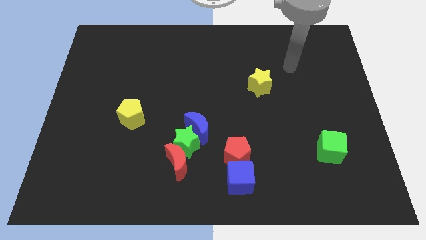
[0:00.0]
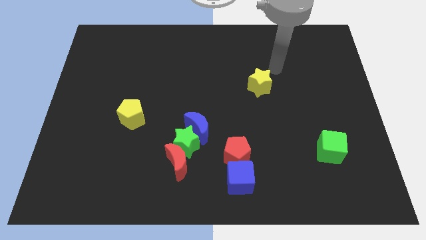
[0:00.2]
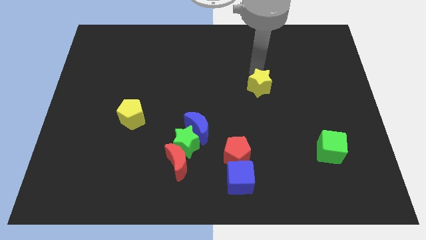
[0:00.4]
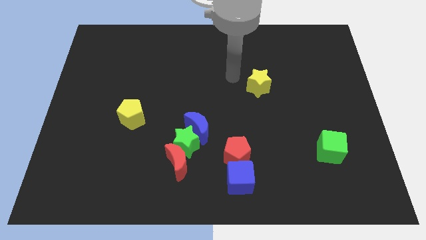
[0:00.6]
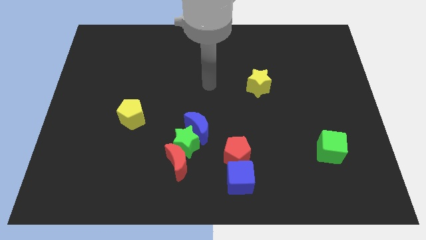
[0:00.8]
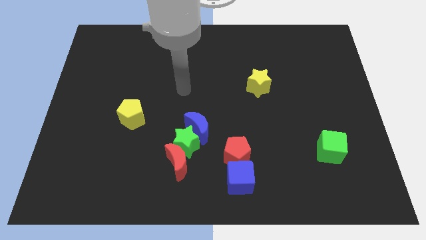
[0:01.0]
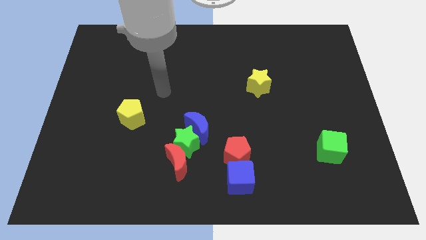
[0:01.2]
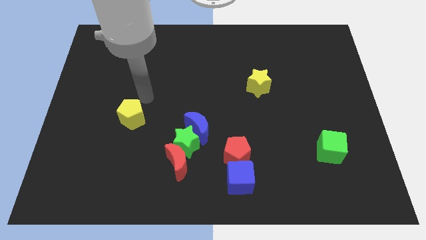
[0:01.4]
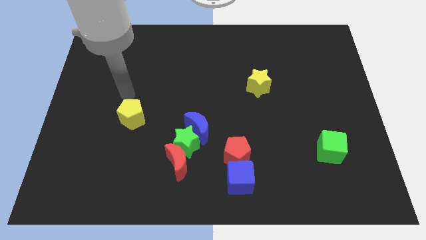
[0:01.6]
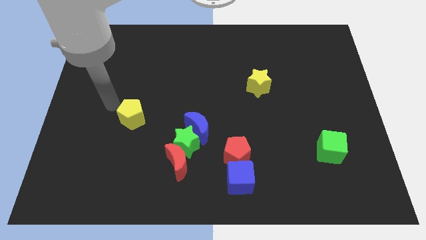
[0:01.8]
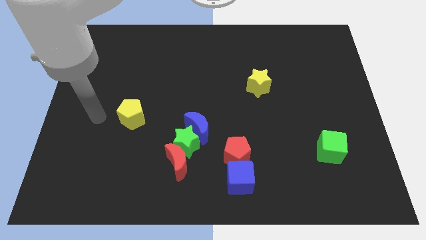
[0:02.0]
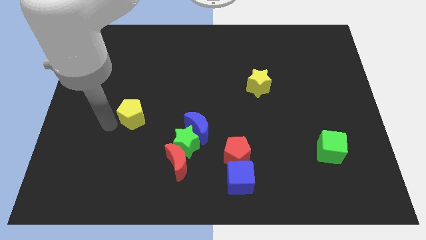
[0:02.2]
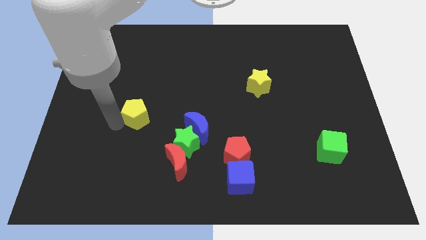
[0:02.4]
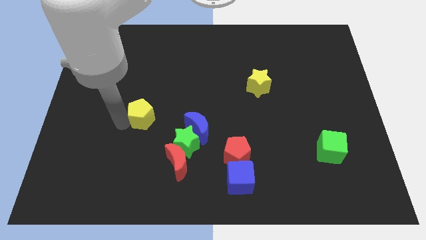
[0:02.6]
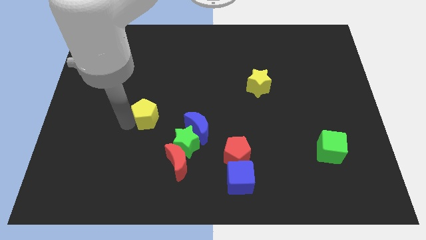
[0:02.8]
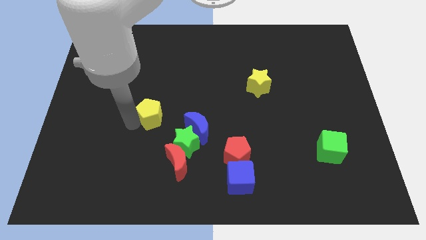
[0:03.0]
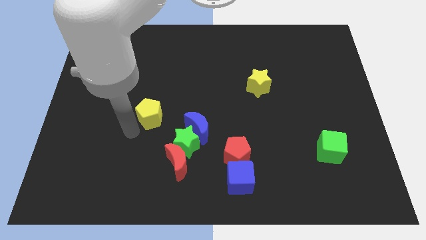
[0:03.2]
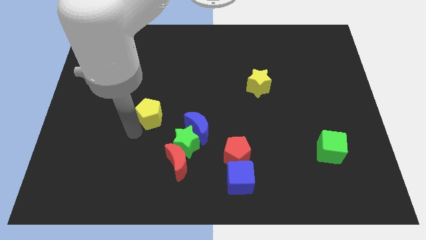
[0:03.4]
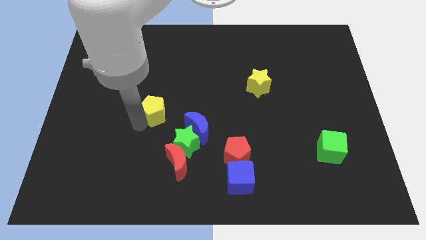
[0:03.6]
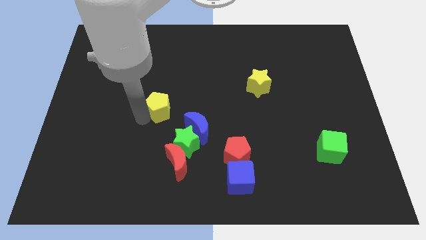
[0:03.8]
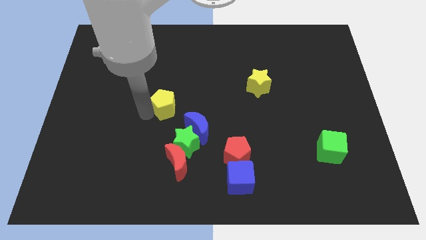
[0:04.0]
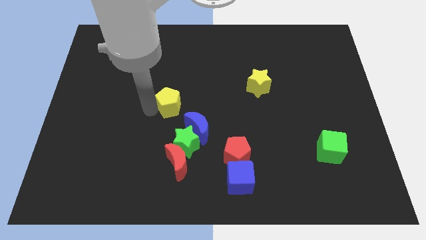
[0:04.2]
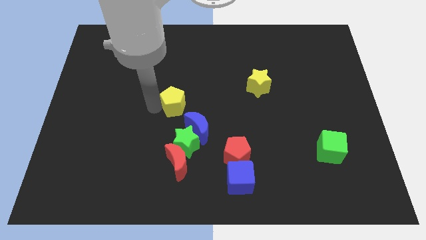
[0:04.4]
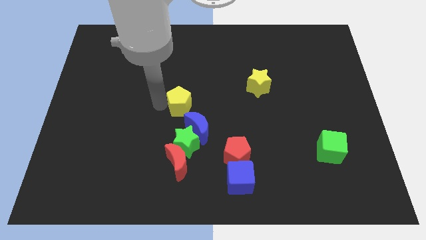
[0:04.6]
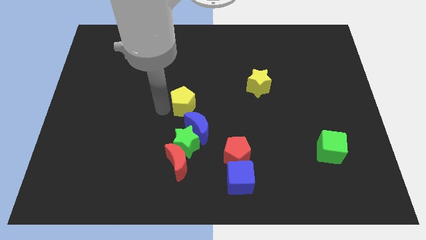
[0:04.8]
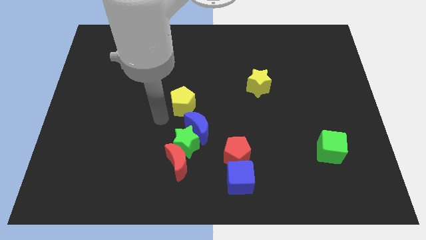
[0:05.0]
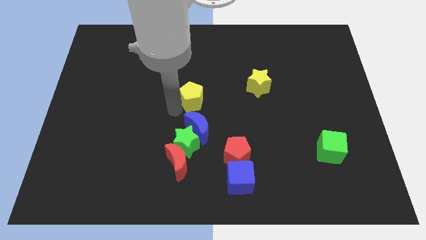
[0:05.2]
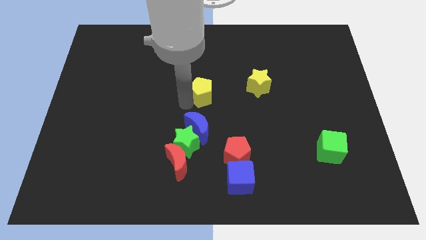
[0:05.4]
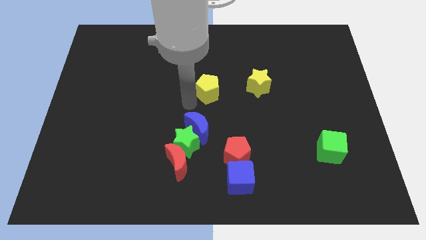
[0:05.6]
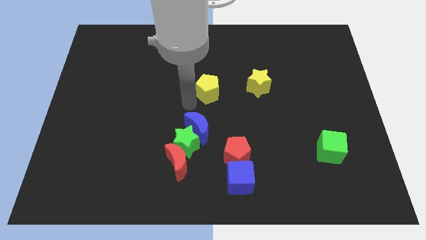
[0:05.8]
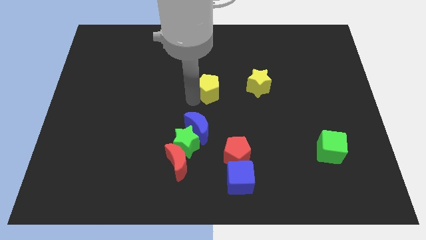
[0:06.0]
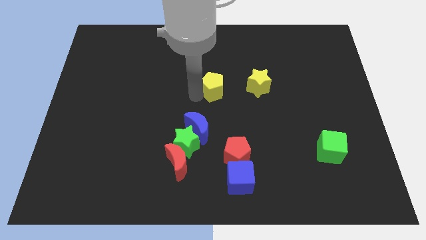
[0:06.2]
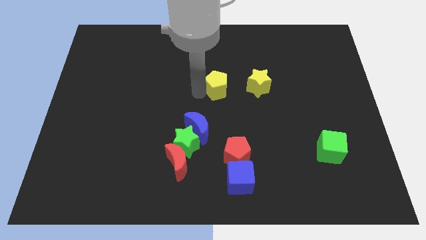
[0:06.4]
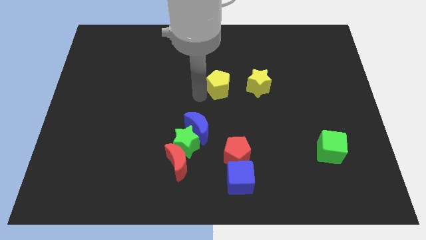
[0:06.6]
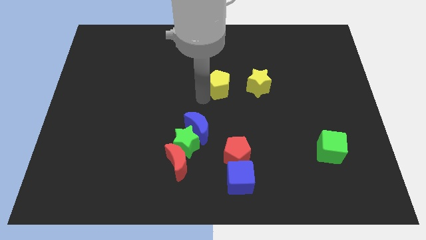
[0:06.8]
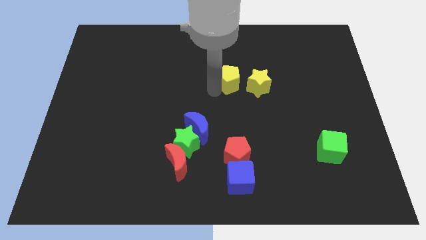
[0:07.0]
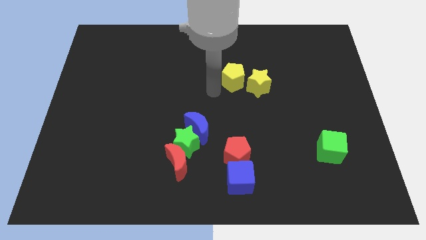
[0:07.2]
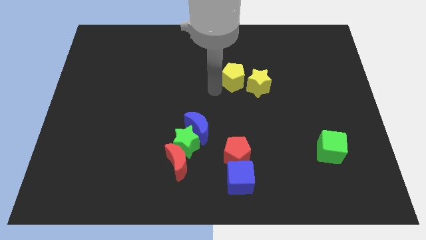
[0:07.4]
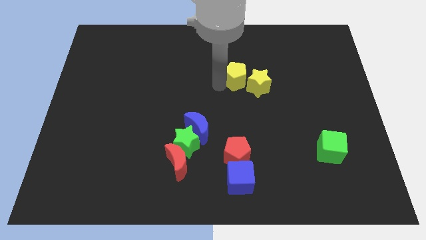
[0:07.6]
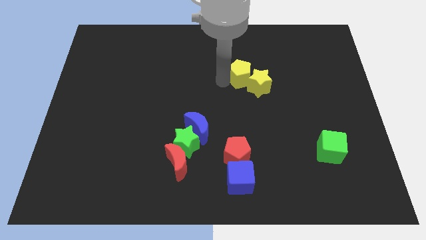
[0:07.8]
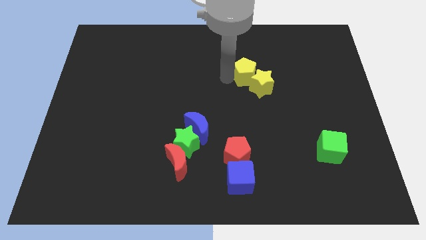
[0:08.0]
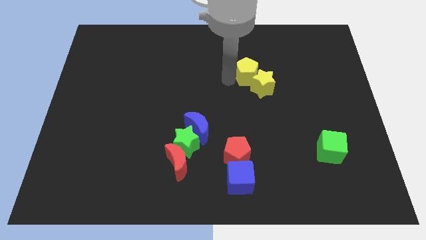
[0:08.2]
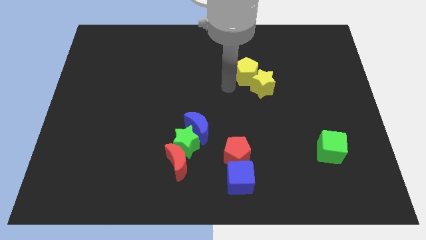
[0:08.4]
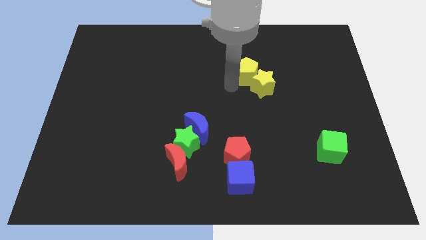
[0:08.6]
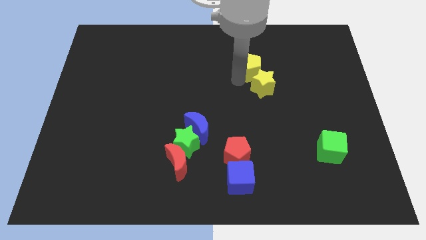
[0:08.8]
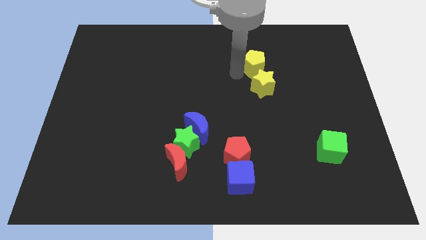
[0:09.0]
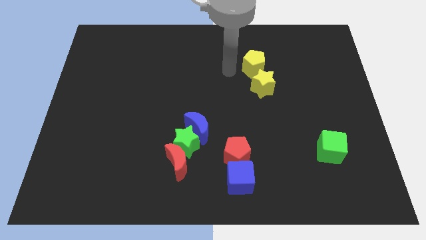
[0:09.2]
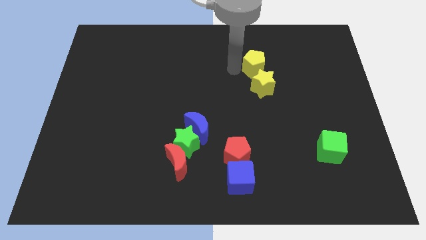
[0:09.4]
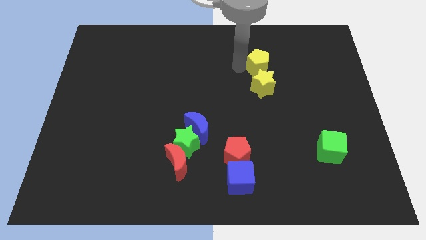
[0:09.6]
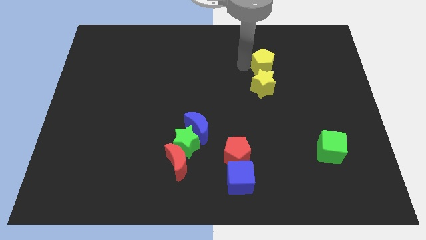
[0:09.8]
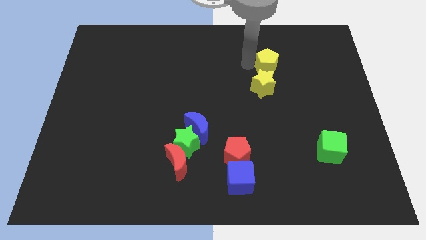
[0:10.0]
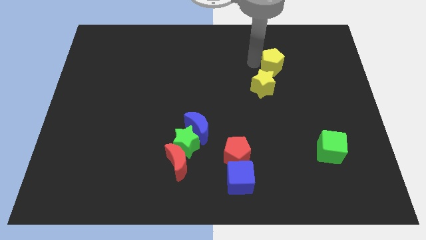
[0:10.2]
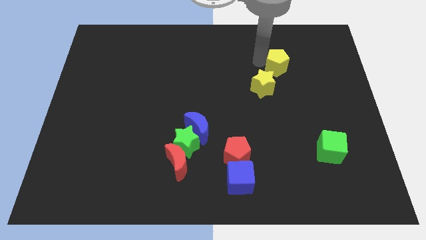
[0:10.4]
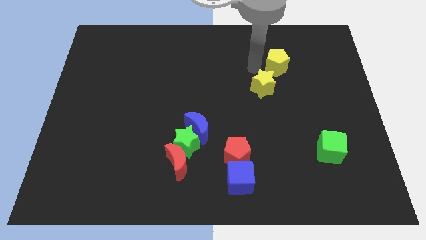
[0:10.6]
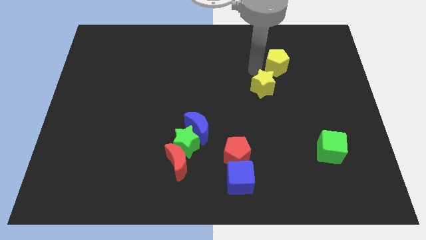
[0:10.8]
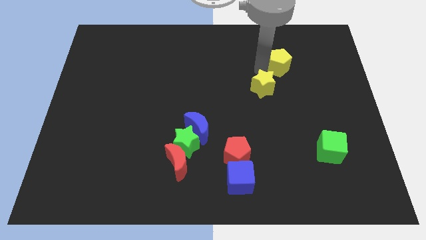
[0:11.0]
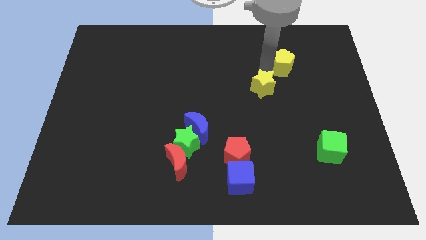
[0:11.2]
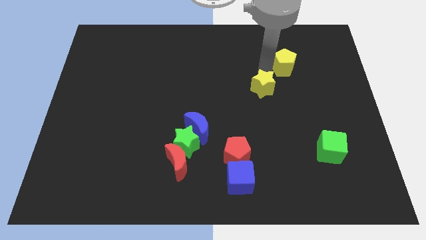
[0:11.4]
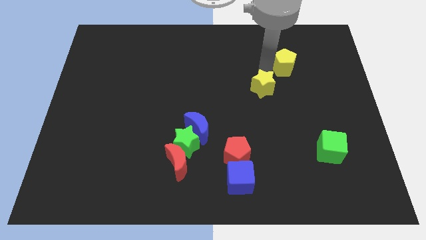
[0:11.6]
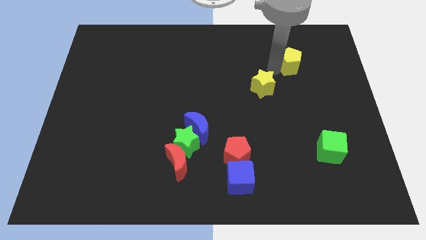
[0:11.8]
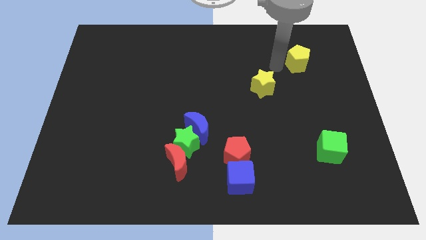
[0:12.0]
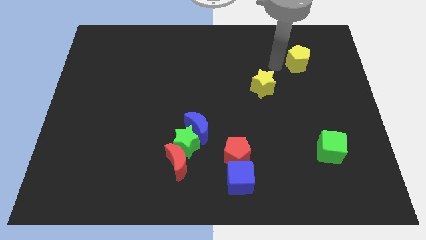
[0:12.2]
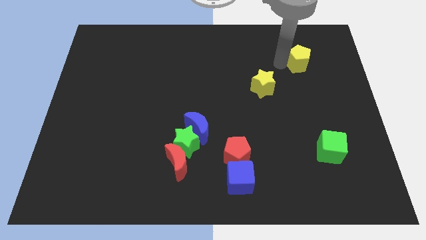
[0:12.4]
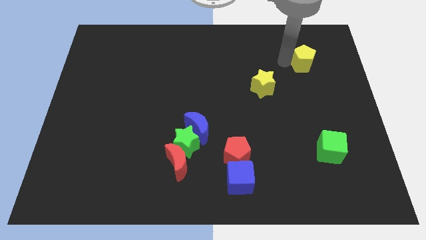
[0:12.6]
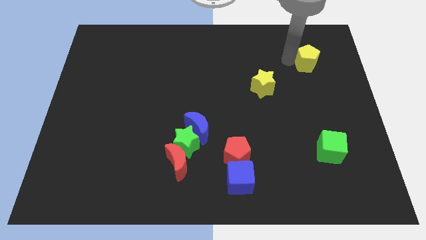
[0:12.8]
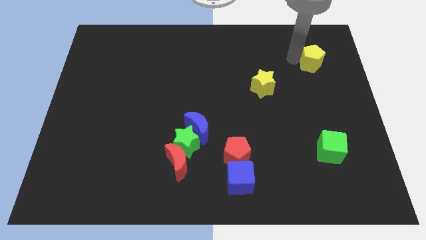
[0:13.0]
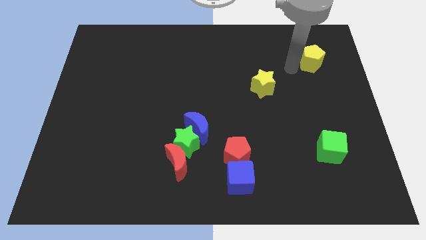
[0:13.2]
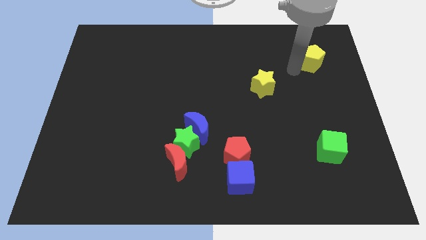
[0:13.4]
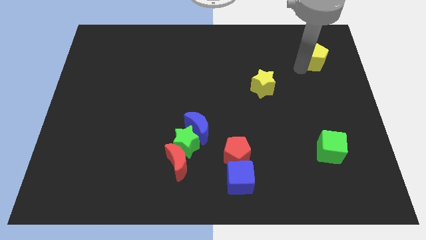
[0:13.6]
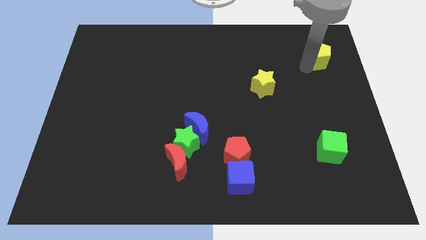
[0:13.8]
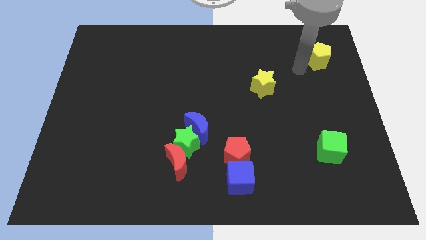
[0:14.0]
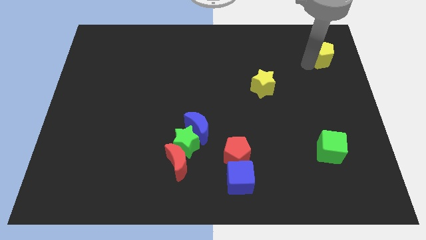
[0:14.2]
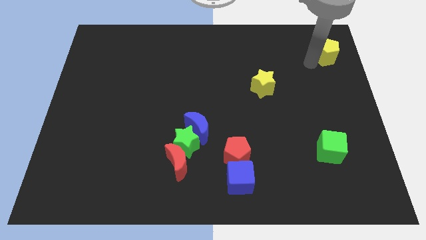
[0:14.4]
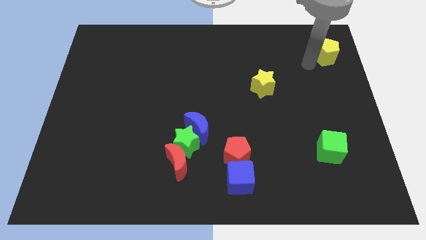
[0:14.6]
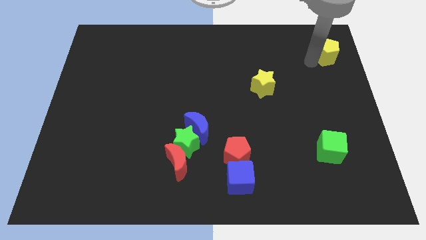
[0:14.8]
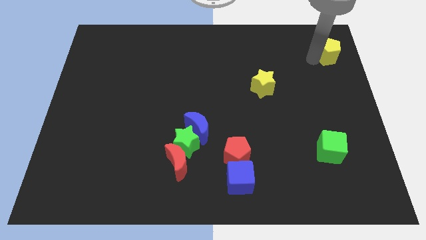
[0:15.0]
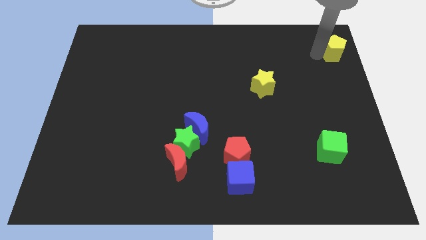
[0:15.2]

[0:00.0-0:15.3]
move the yellow pentagon to the upper right corner
